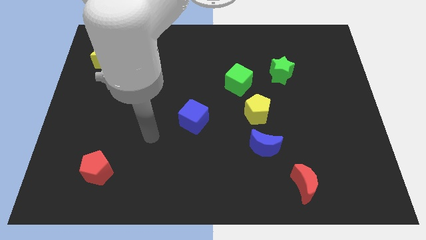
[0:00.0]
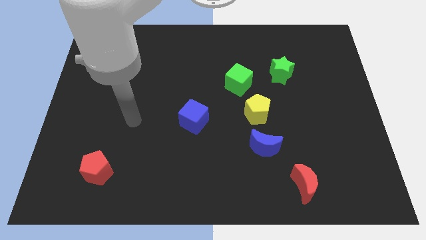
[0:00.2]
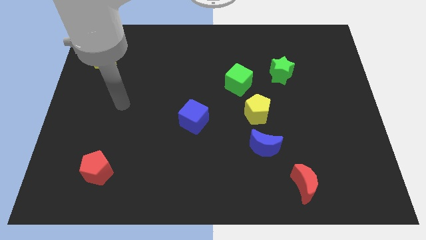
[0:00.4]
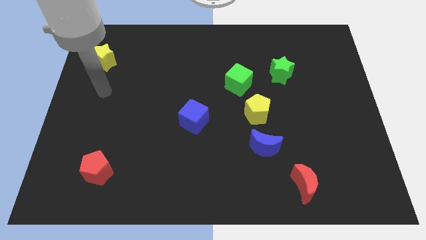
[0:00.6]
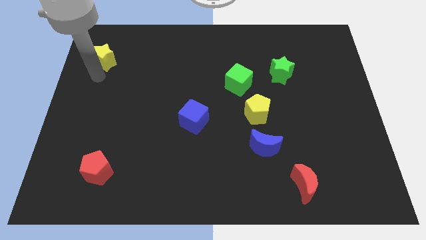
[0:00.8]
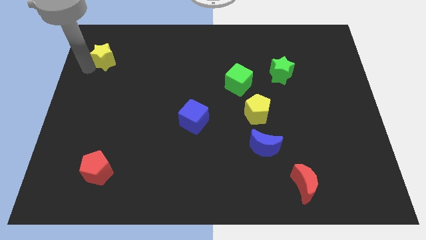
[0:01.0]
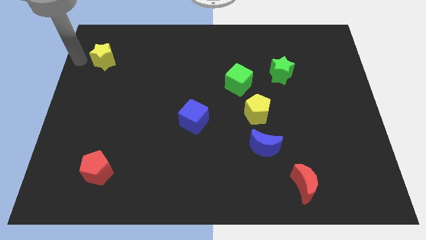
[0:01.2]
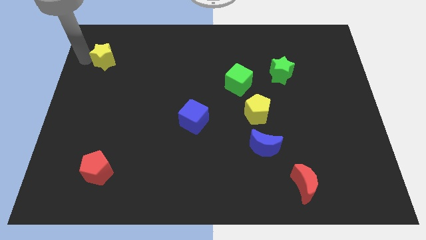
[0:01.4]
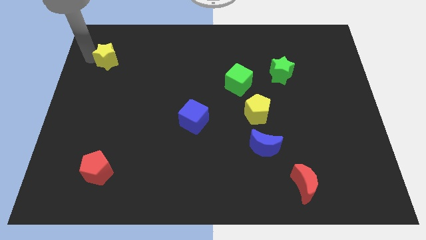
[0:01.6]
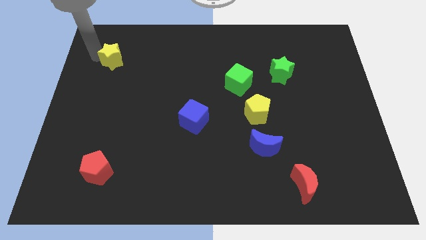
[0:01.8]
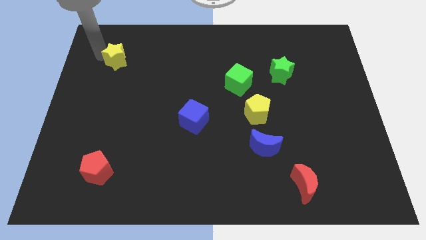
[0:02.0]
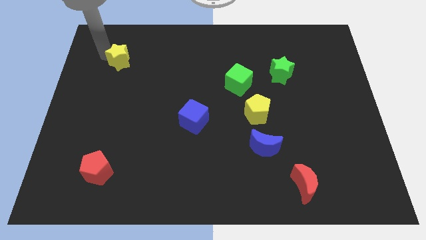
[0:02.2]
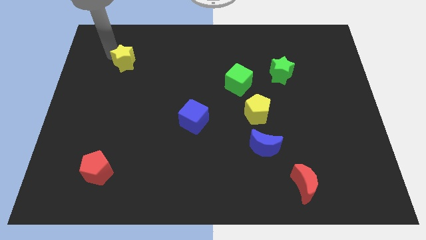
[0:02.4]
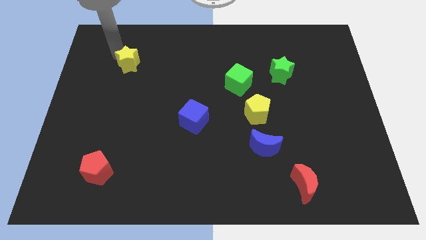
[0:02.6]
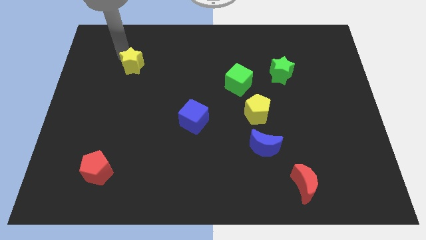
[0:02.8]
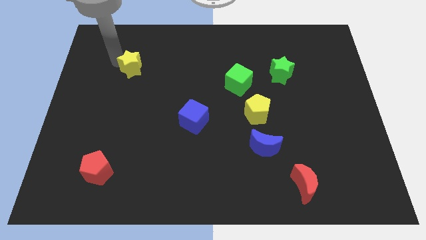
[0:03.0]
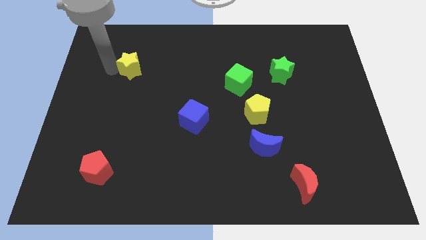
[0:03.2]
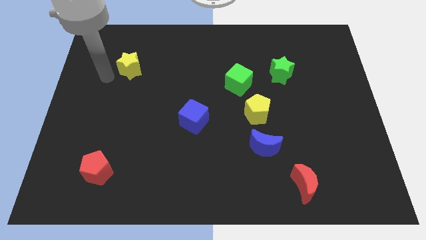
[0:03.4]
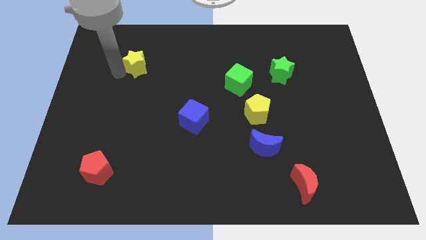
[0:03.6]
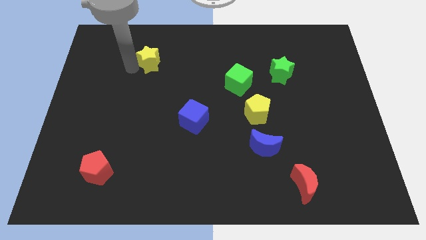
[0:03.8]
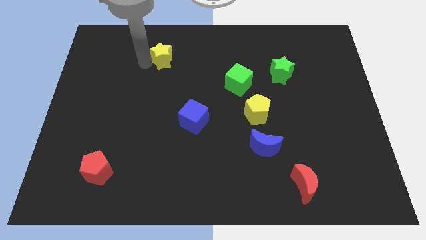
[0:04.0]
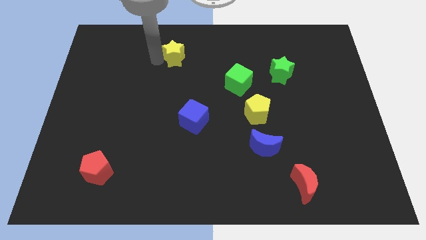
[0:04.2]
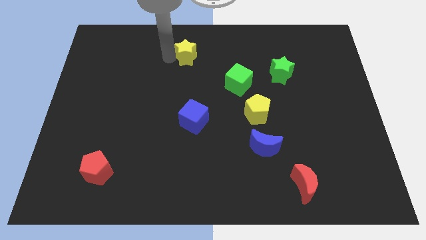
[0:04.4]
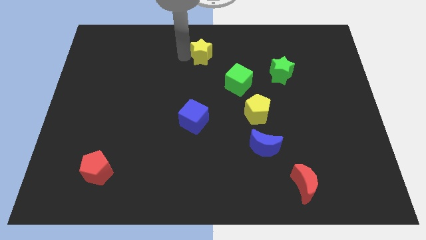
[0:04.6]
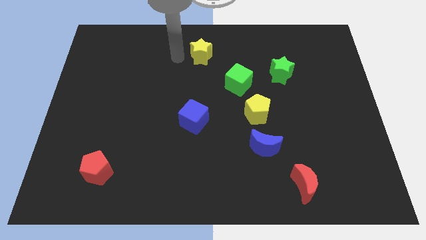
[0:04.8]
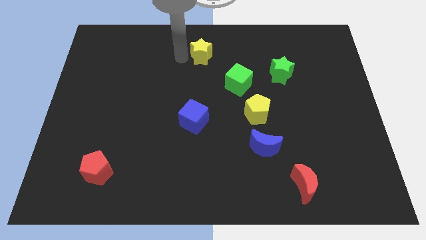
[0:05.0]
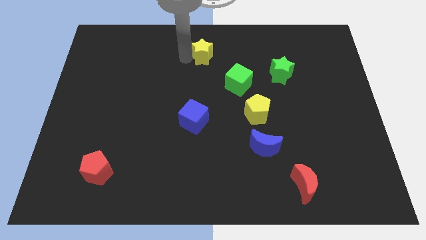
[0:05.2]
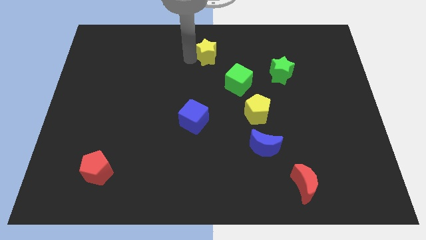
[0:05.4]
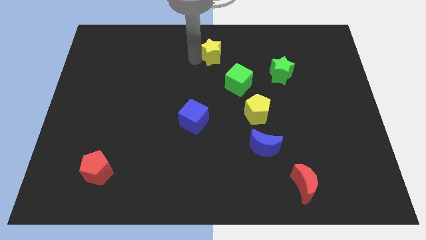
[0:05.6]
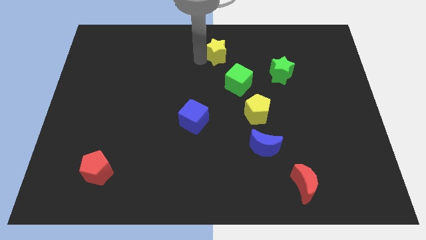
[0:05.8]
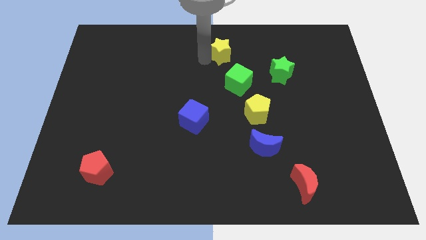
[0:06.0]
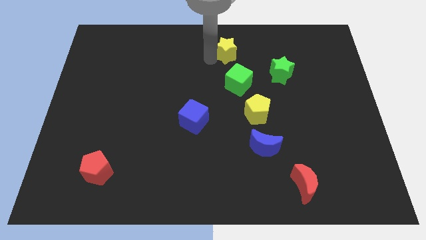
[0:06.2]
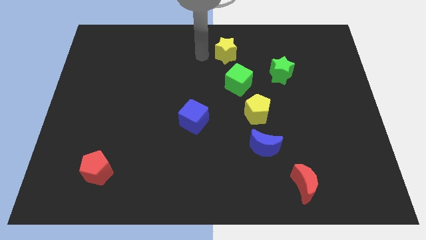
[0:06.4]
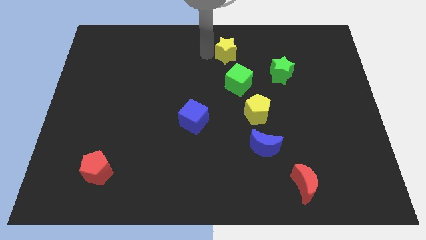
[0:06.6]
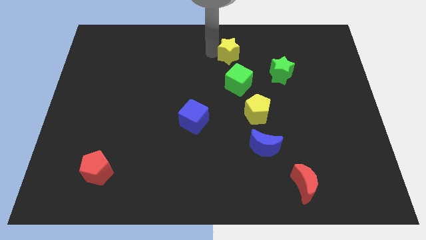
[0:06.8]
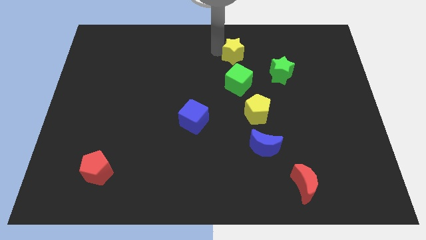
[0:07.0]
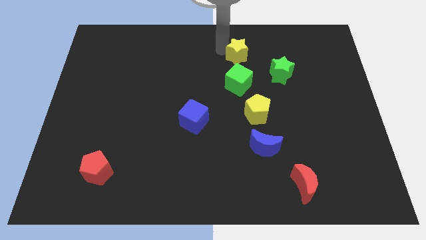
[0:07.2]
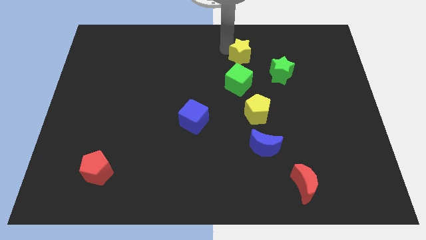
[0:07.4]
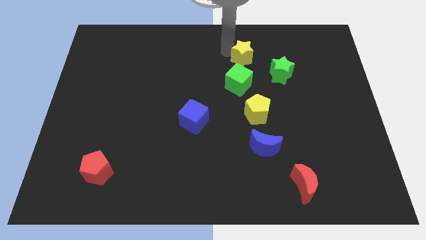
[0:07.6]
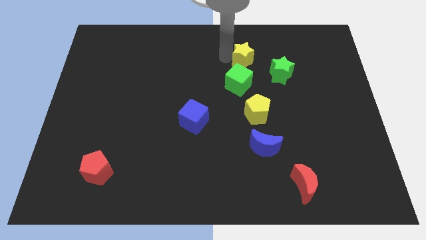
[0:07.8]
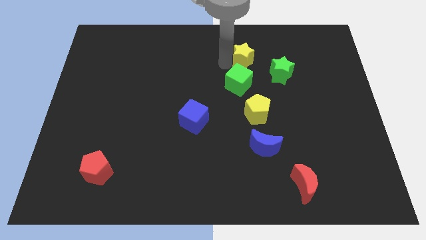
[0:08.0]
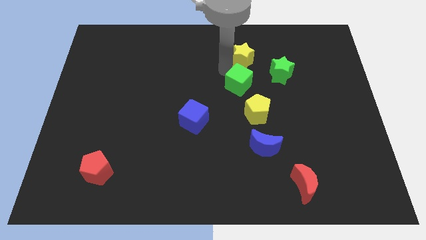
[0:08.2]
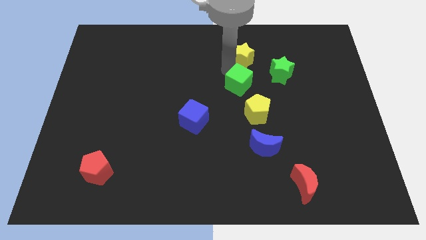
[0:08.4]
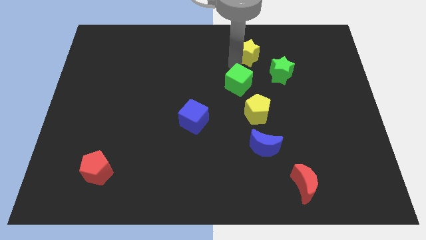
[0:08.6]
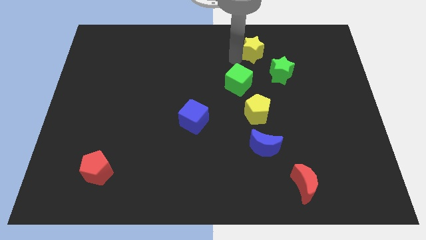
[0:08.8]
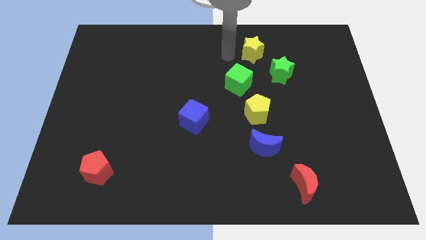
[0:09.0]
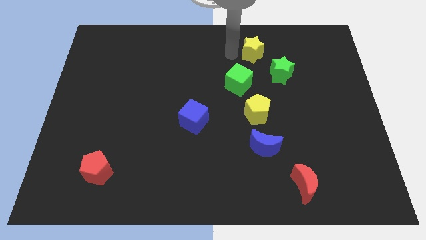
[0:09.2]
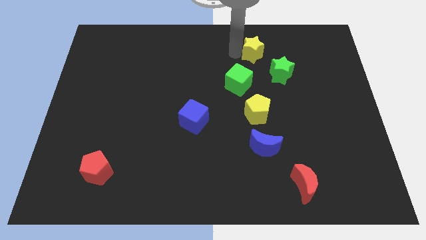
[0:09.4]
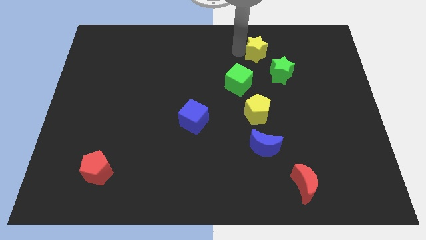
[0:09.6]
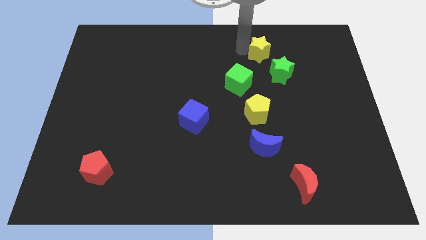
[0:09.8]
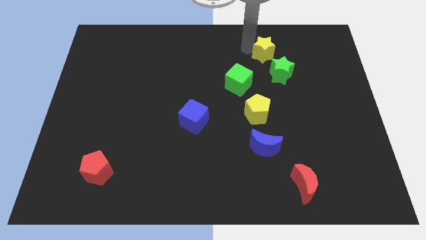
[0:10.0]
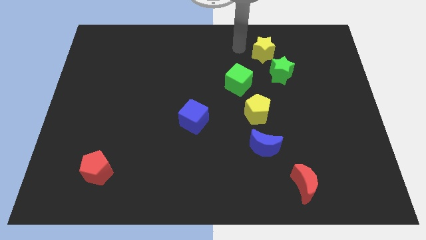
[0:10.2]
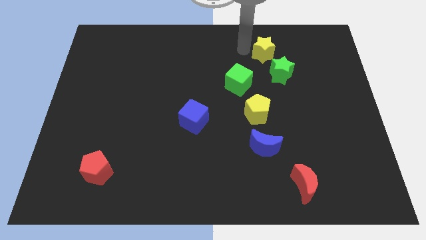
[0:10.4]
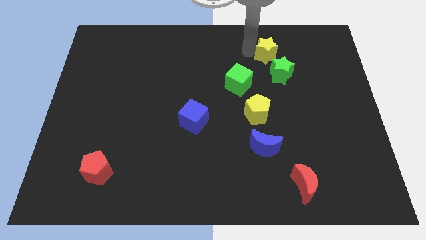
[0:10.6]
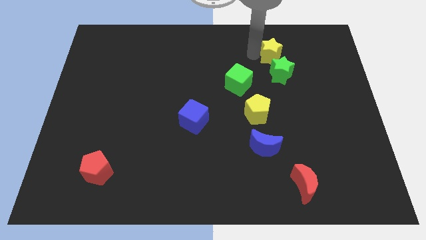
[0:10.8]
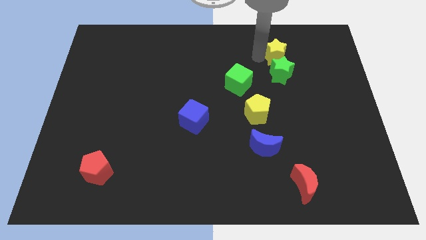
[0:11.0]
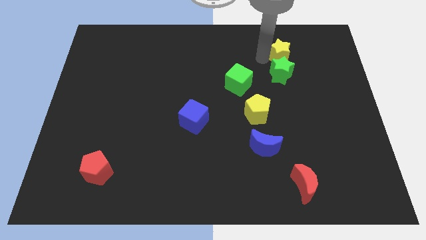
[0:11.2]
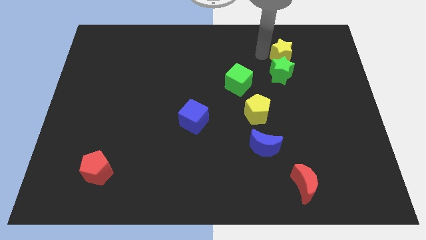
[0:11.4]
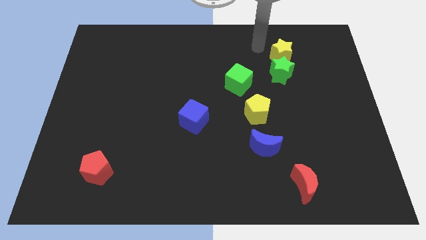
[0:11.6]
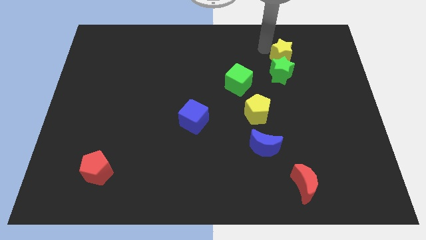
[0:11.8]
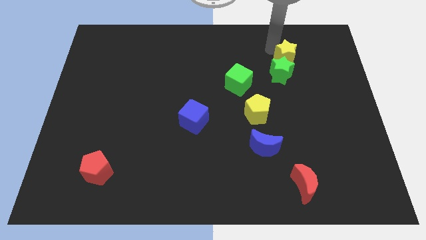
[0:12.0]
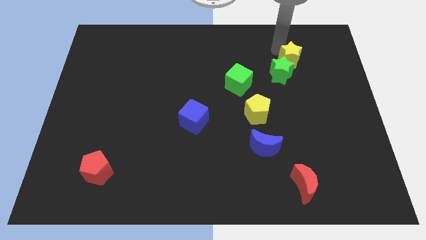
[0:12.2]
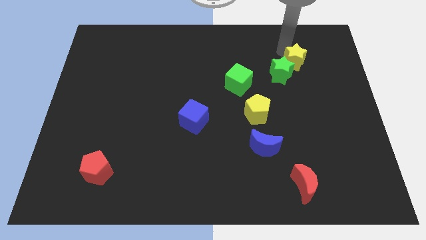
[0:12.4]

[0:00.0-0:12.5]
push the yellow star to the right side of the green star
